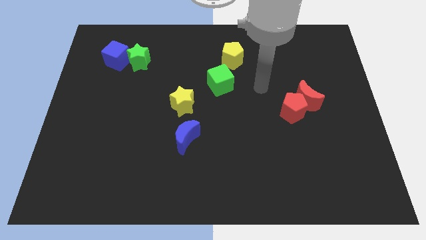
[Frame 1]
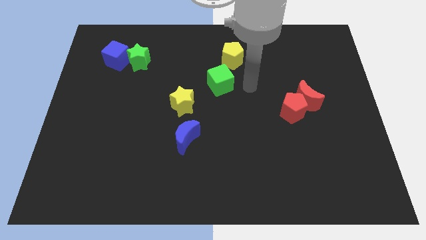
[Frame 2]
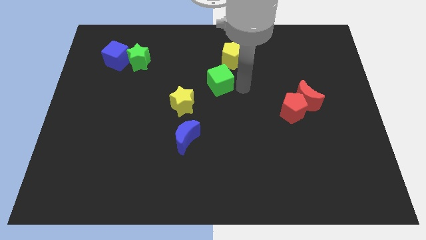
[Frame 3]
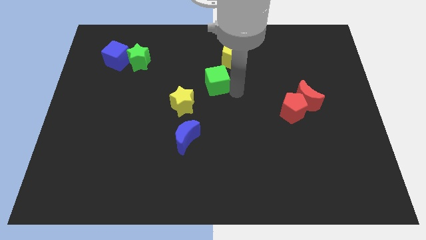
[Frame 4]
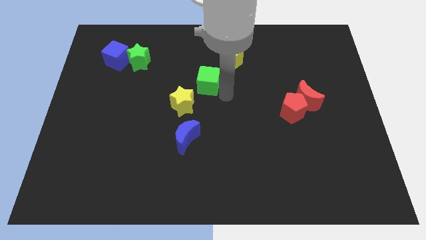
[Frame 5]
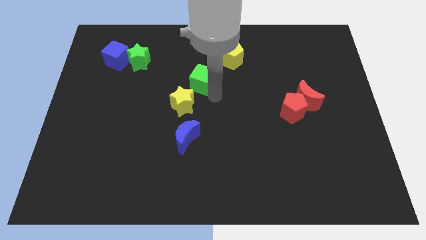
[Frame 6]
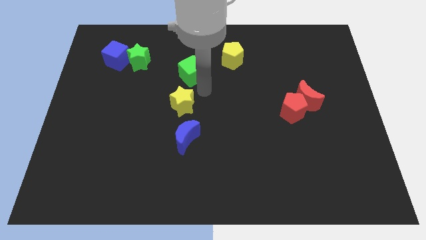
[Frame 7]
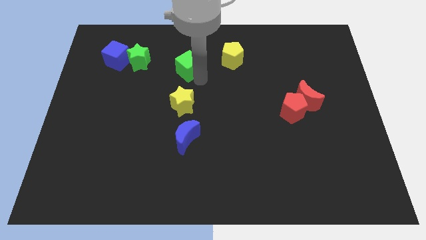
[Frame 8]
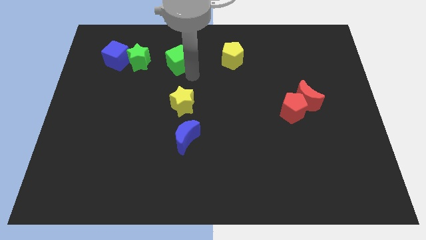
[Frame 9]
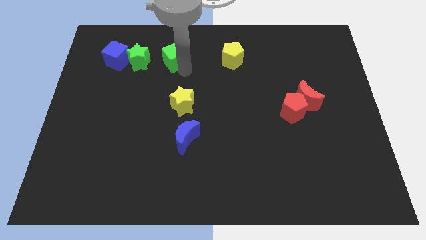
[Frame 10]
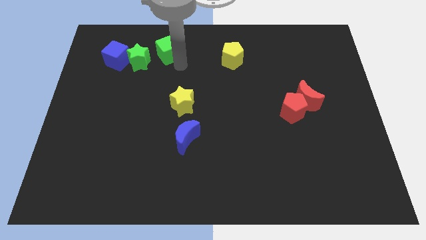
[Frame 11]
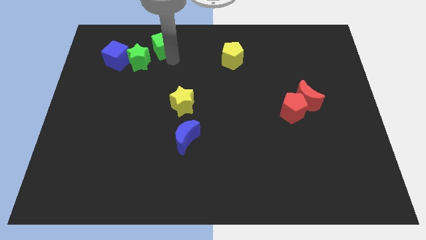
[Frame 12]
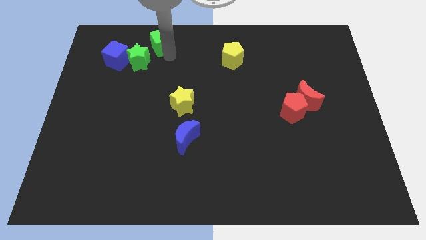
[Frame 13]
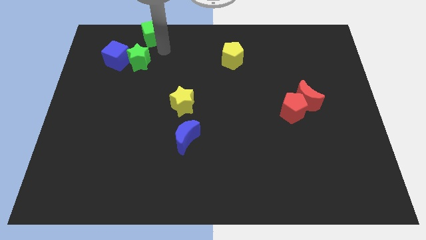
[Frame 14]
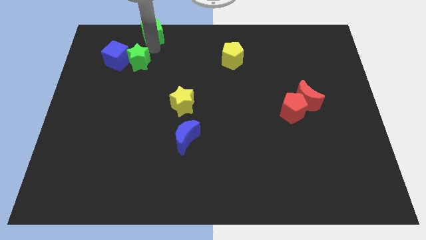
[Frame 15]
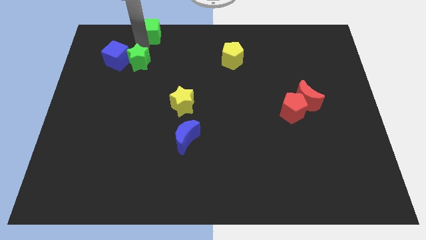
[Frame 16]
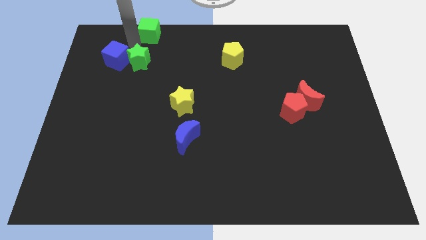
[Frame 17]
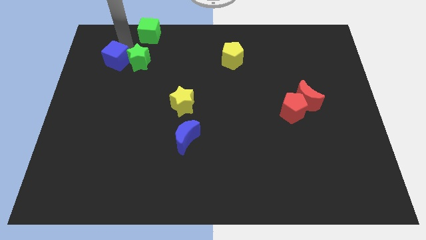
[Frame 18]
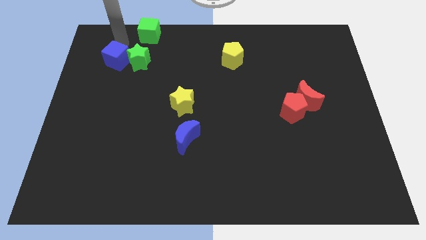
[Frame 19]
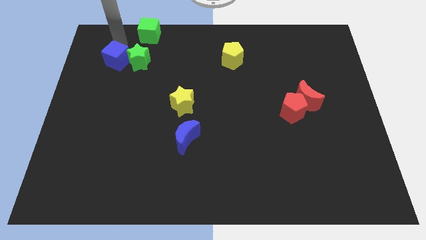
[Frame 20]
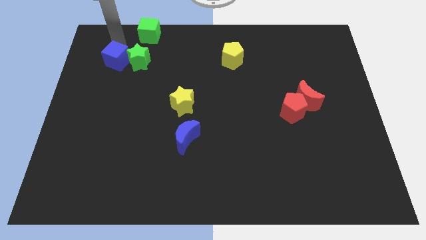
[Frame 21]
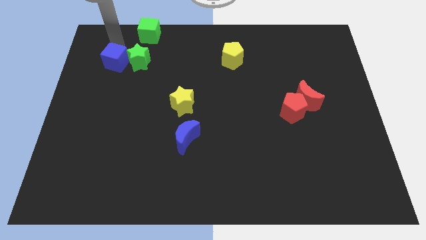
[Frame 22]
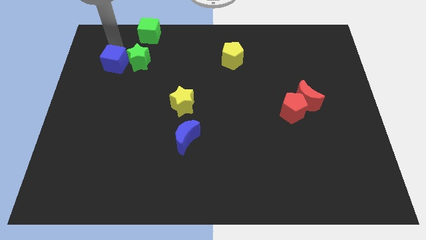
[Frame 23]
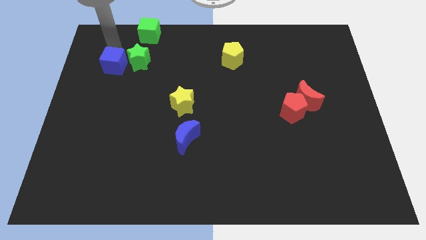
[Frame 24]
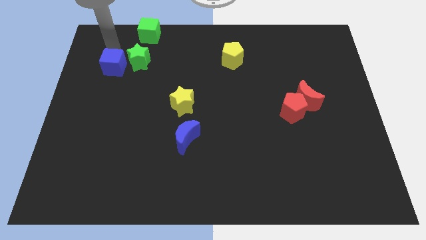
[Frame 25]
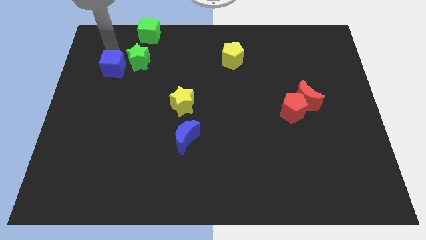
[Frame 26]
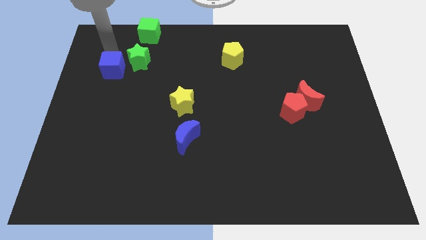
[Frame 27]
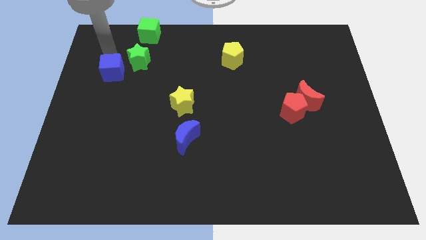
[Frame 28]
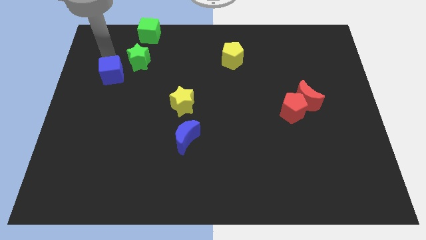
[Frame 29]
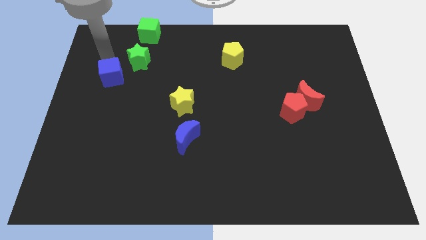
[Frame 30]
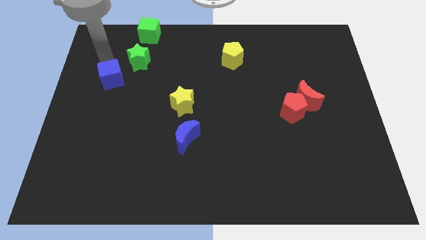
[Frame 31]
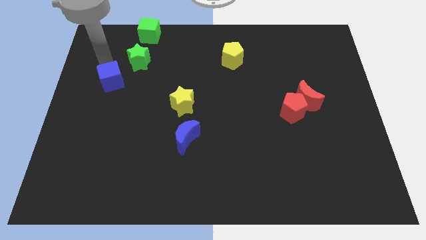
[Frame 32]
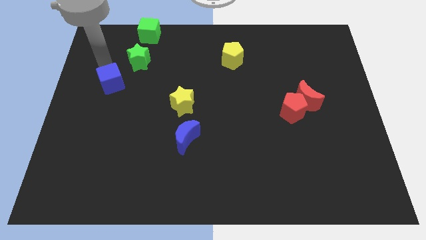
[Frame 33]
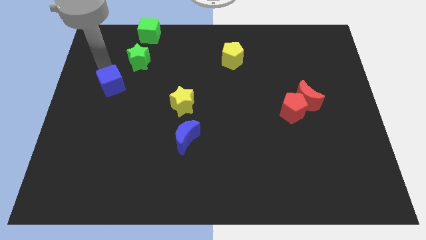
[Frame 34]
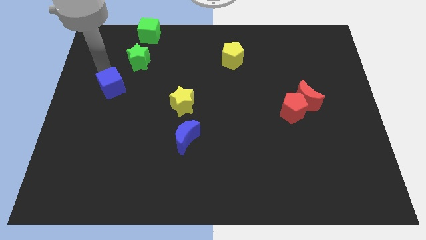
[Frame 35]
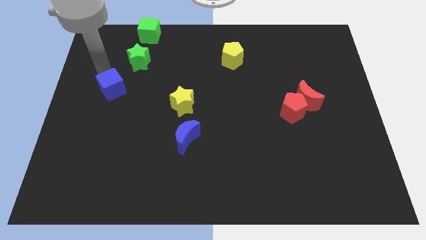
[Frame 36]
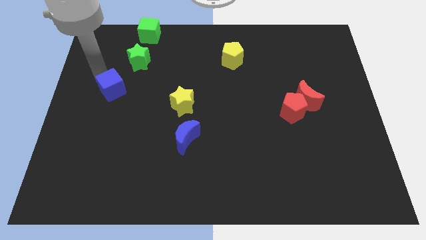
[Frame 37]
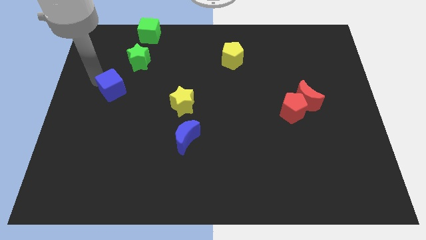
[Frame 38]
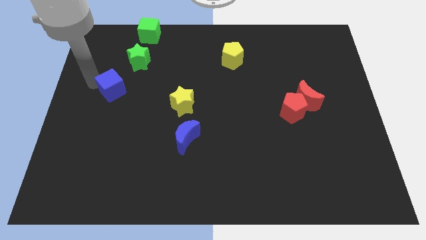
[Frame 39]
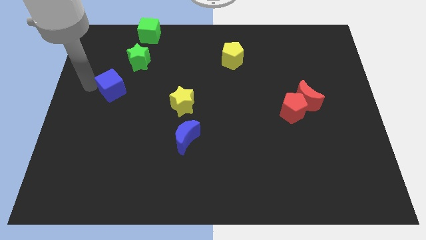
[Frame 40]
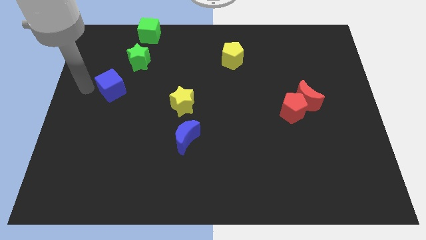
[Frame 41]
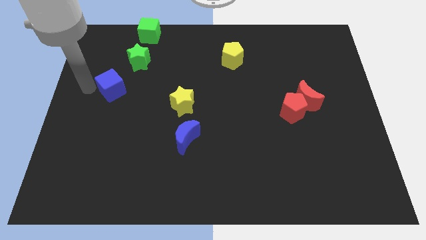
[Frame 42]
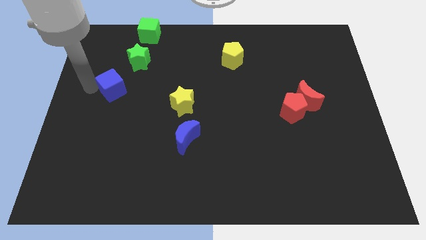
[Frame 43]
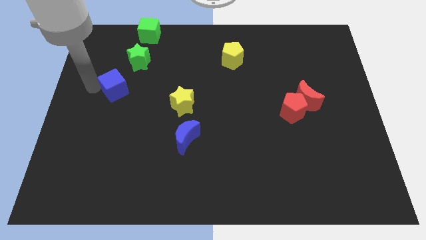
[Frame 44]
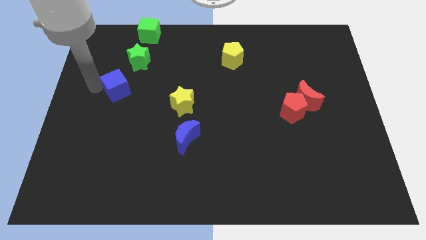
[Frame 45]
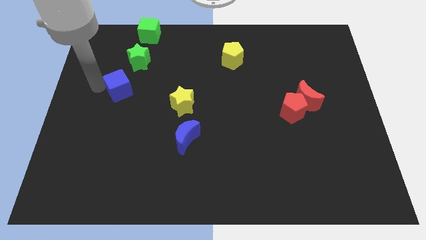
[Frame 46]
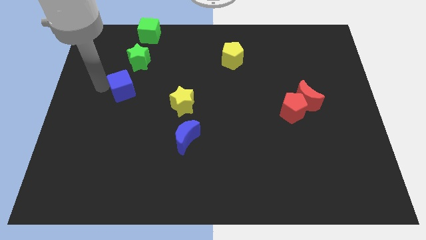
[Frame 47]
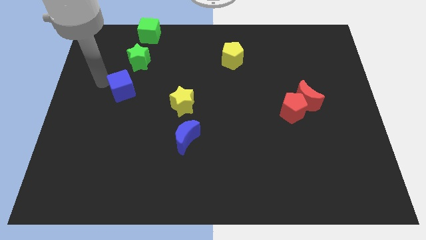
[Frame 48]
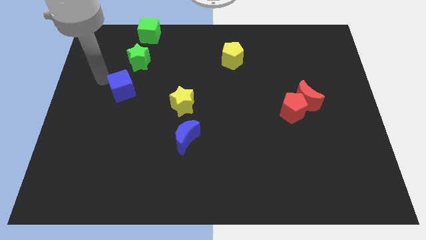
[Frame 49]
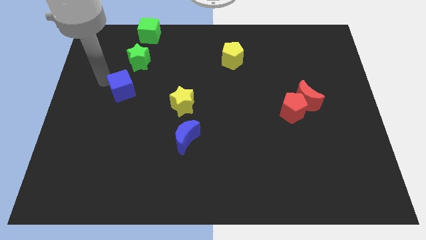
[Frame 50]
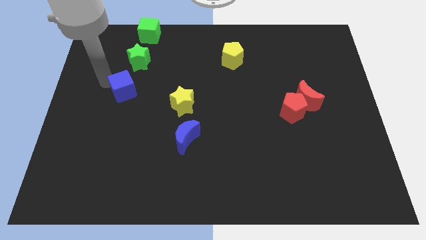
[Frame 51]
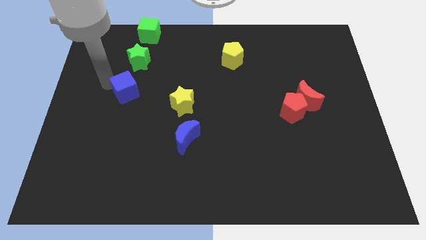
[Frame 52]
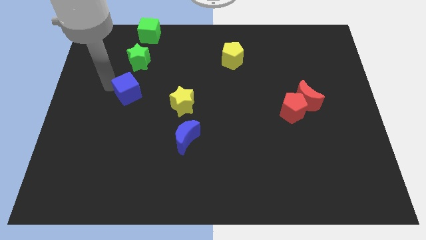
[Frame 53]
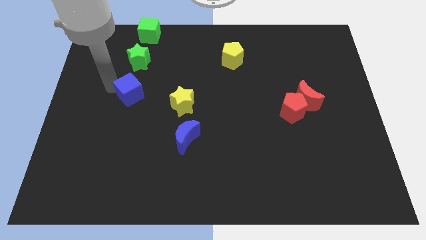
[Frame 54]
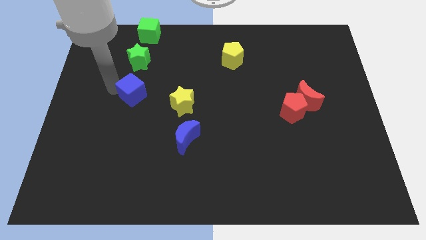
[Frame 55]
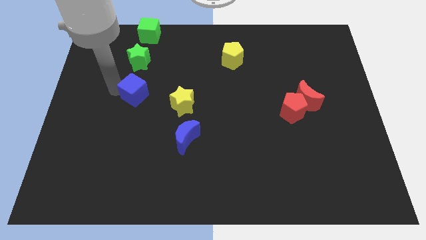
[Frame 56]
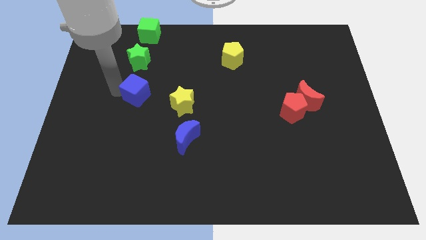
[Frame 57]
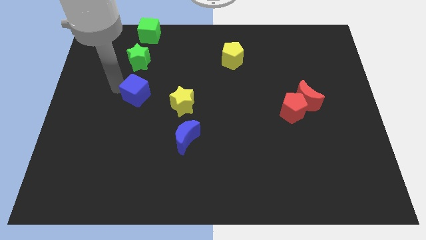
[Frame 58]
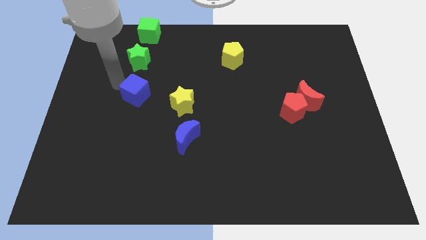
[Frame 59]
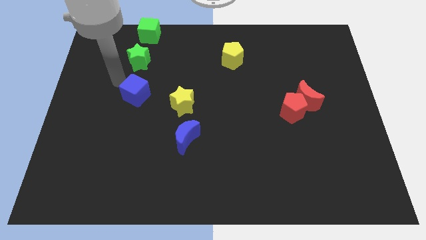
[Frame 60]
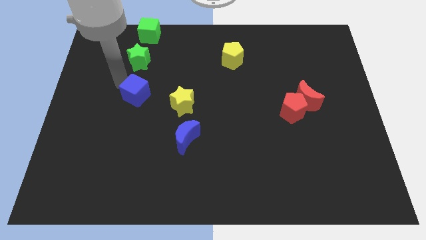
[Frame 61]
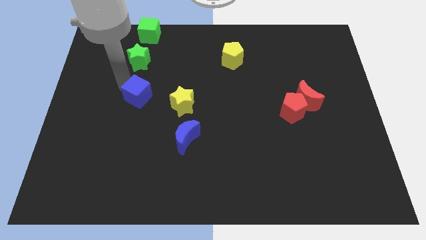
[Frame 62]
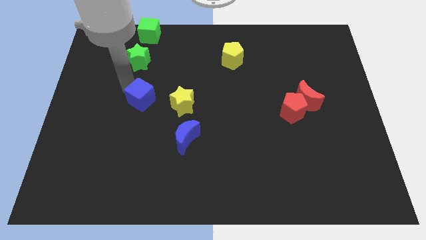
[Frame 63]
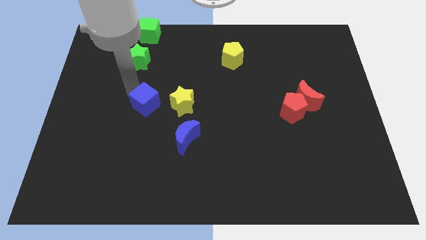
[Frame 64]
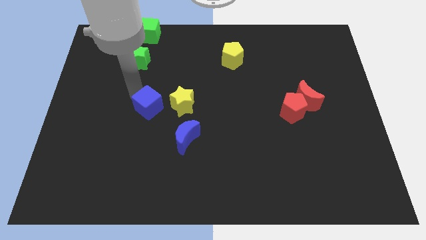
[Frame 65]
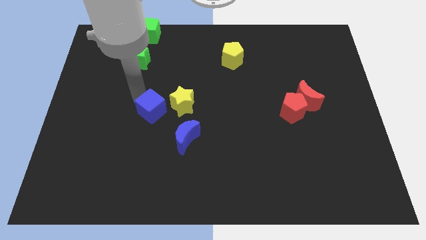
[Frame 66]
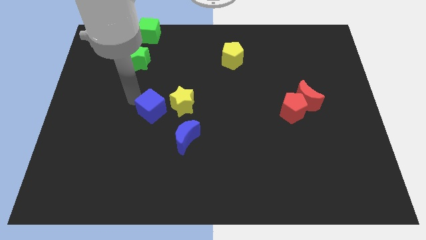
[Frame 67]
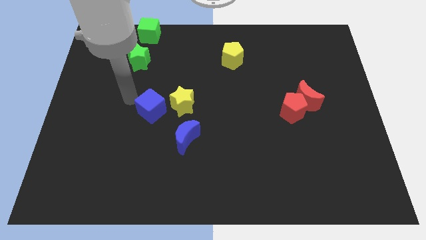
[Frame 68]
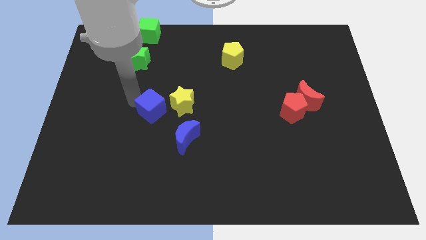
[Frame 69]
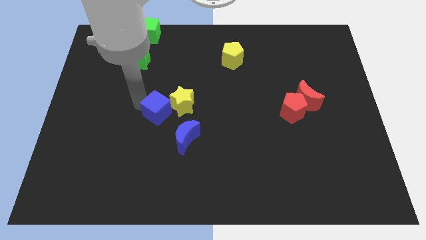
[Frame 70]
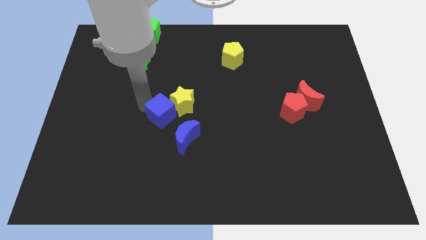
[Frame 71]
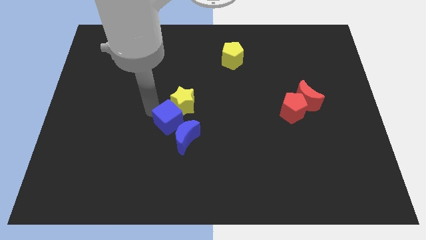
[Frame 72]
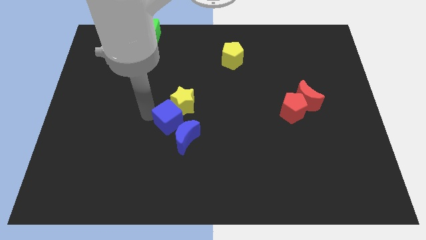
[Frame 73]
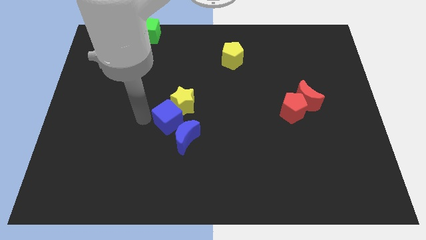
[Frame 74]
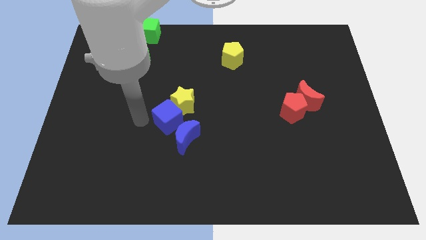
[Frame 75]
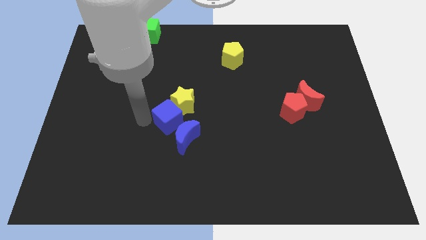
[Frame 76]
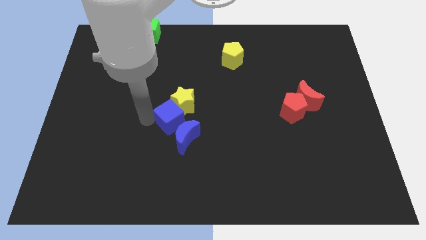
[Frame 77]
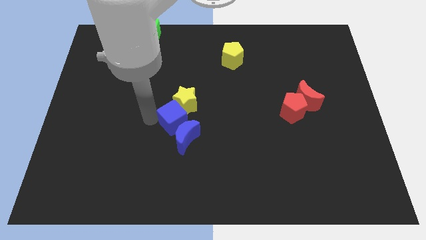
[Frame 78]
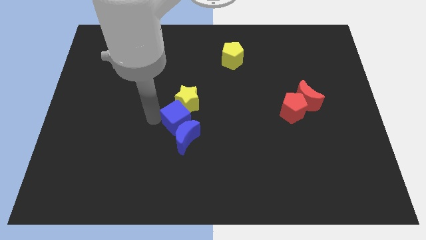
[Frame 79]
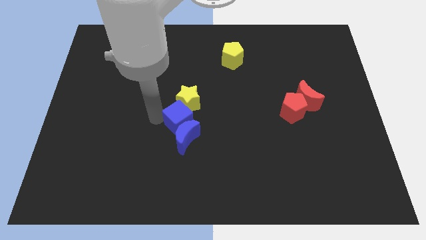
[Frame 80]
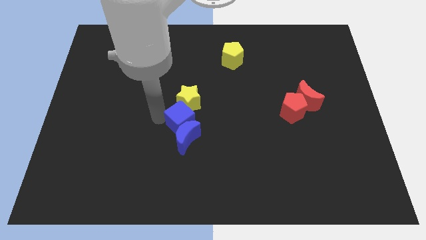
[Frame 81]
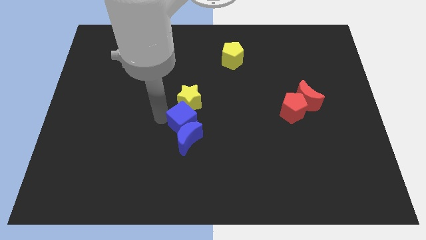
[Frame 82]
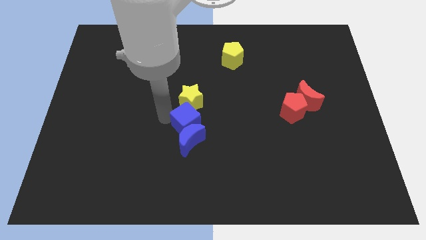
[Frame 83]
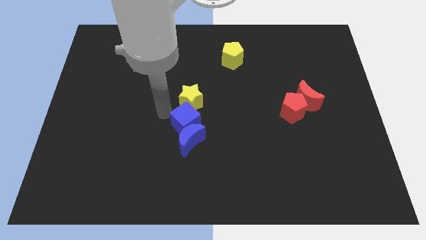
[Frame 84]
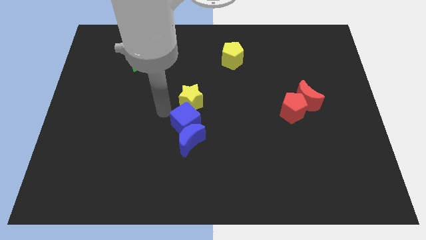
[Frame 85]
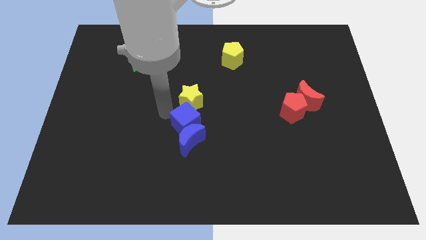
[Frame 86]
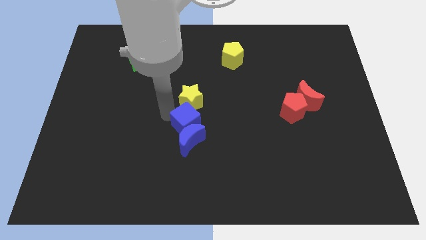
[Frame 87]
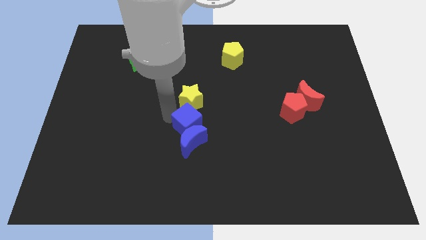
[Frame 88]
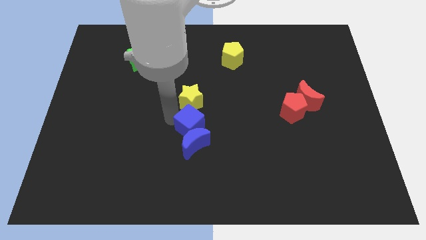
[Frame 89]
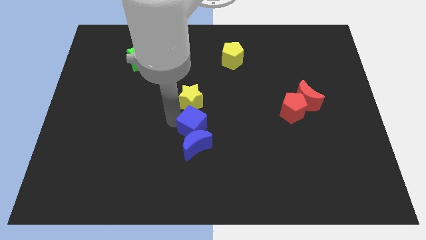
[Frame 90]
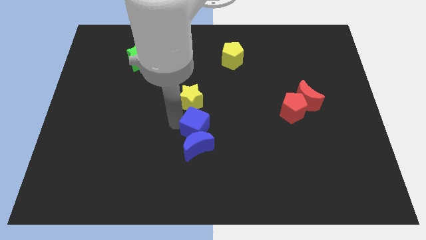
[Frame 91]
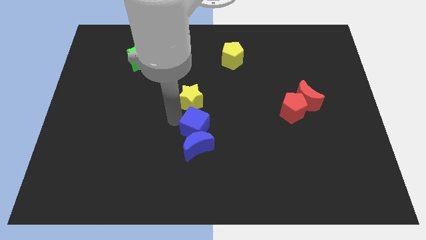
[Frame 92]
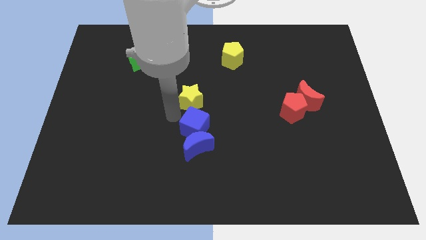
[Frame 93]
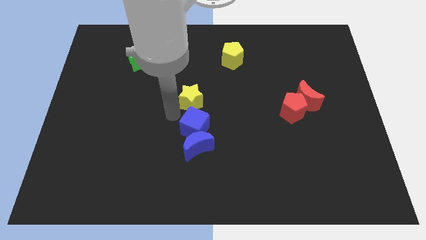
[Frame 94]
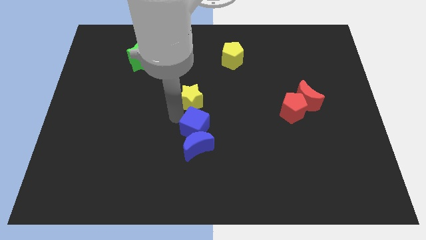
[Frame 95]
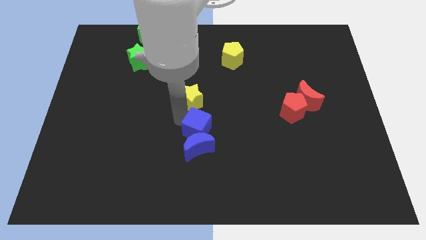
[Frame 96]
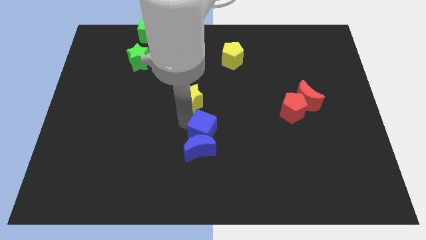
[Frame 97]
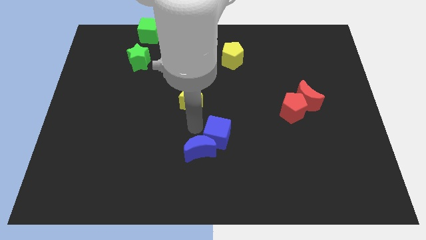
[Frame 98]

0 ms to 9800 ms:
put the blue cube right of the blue moon
